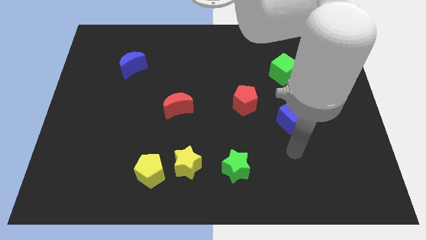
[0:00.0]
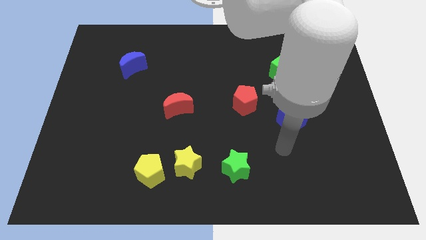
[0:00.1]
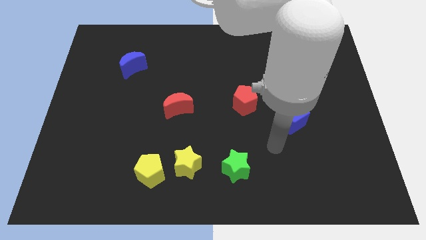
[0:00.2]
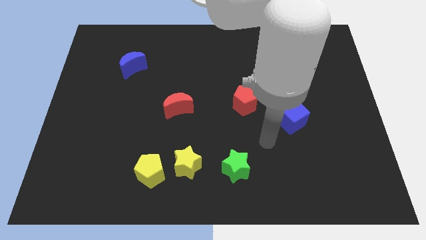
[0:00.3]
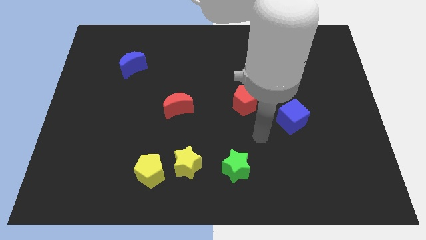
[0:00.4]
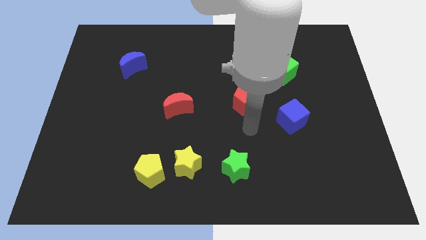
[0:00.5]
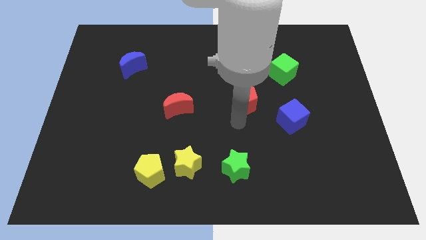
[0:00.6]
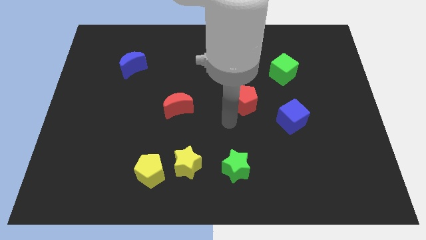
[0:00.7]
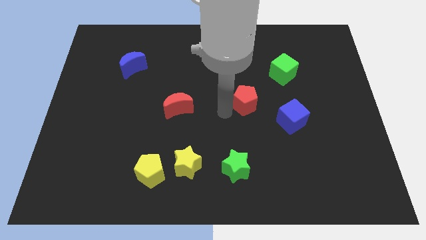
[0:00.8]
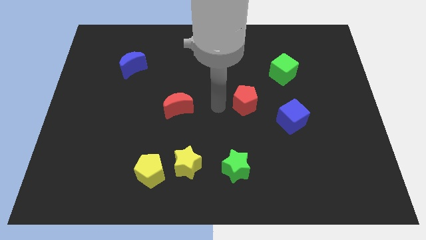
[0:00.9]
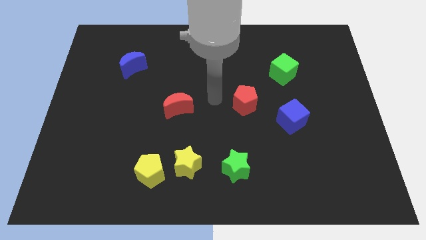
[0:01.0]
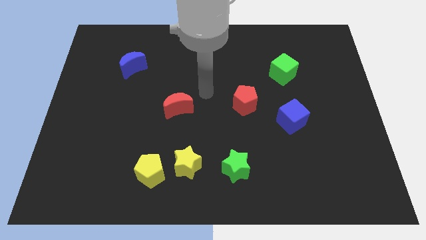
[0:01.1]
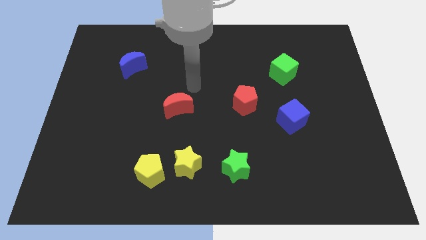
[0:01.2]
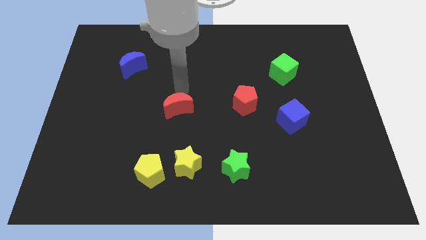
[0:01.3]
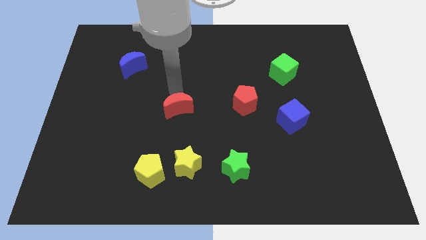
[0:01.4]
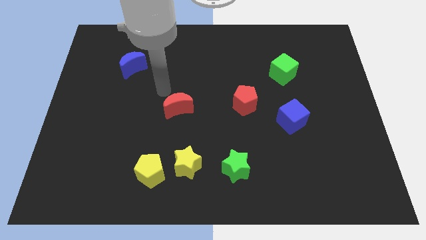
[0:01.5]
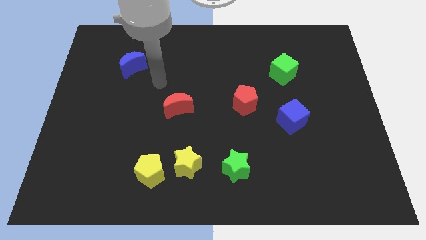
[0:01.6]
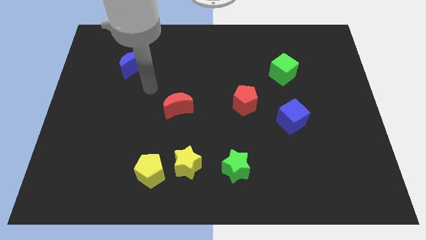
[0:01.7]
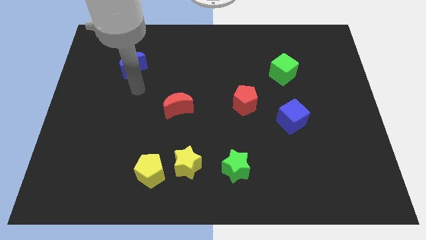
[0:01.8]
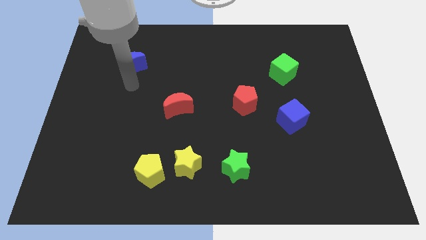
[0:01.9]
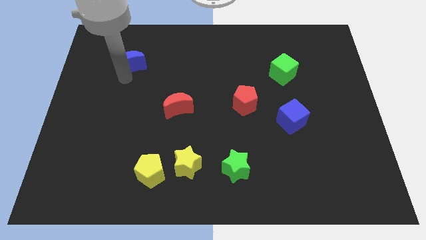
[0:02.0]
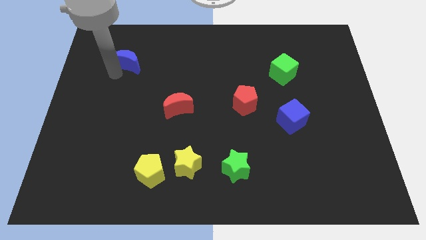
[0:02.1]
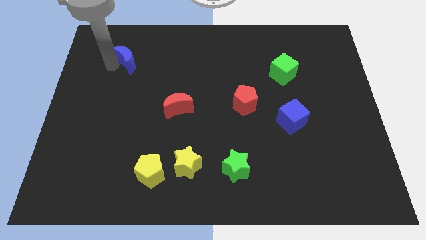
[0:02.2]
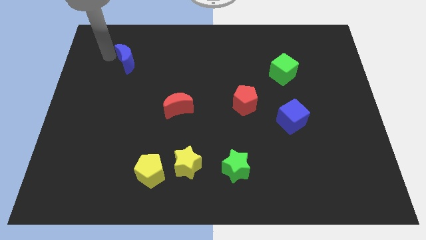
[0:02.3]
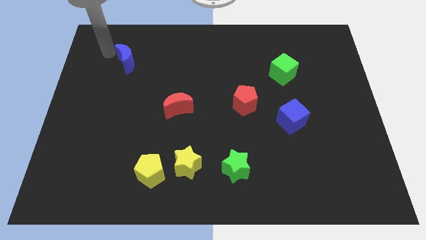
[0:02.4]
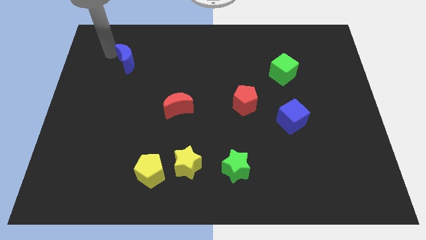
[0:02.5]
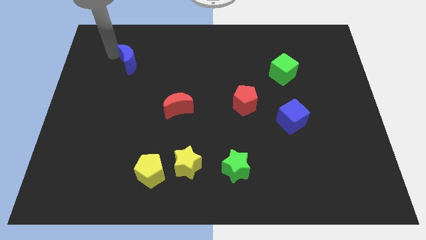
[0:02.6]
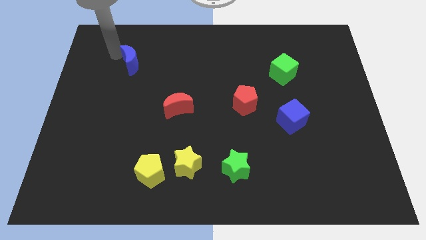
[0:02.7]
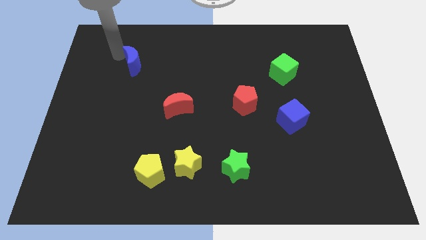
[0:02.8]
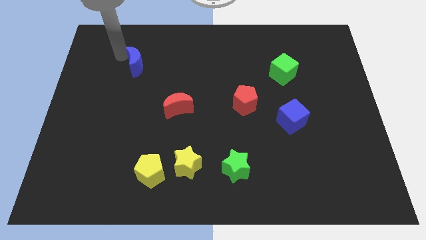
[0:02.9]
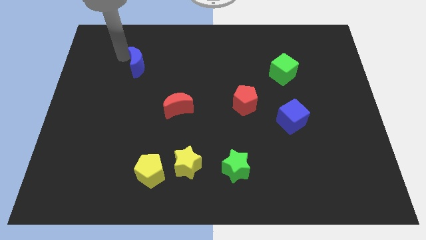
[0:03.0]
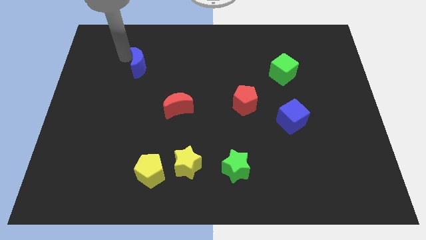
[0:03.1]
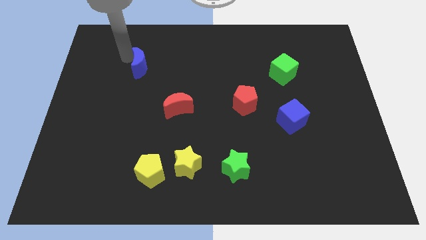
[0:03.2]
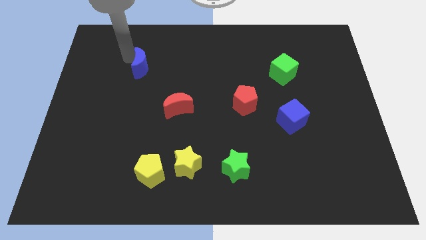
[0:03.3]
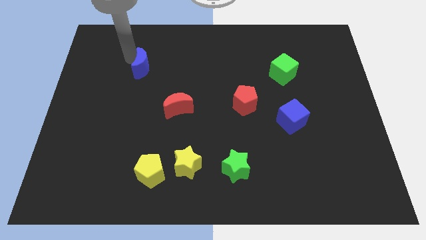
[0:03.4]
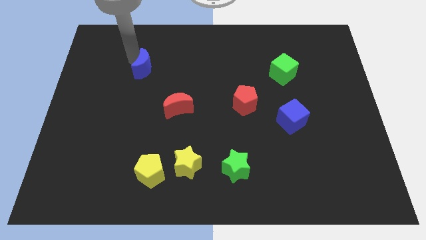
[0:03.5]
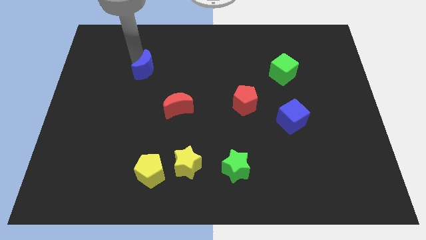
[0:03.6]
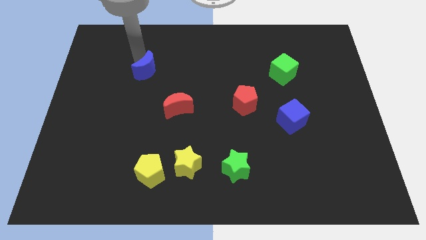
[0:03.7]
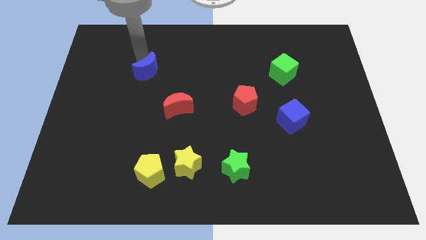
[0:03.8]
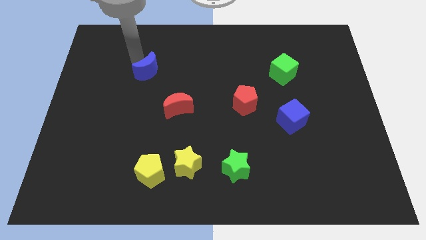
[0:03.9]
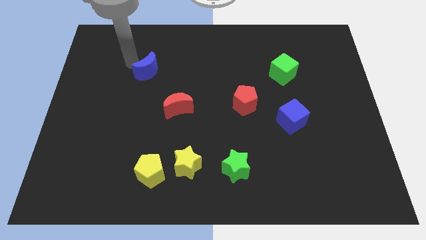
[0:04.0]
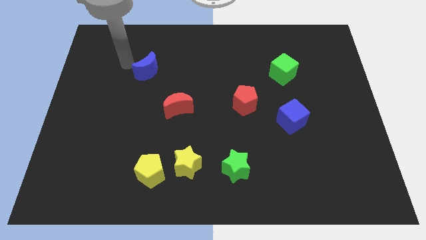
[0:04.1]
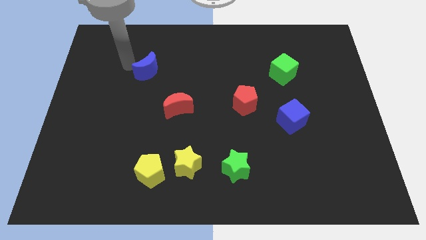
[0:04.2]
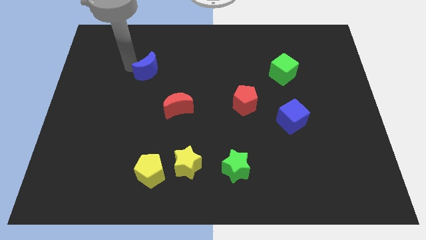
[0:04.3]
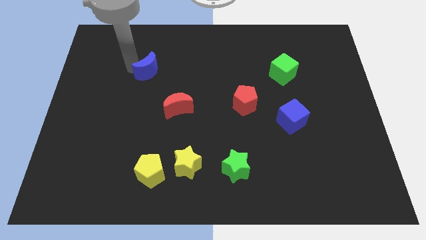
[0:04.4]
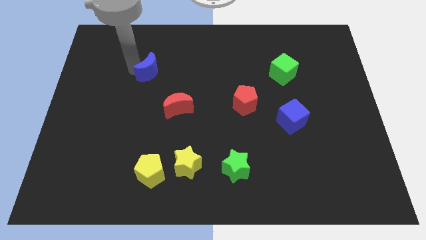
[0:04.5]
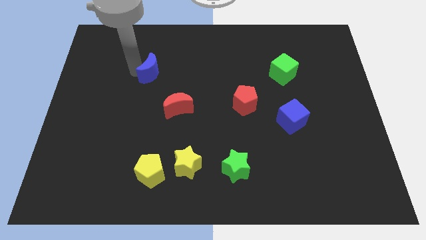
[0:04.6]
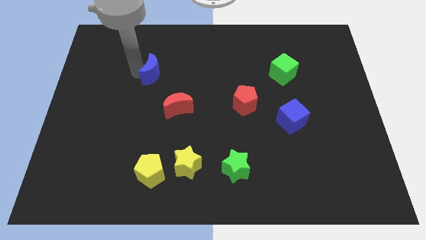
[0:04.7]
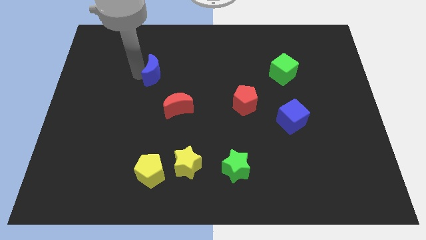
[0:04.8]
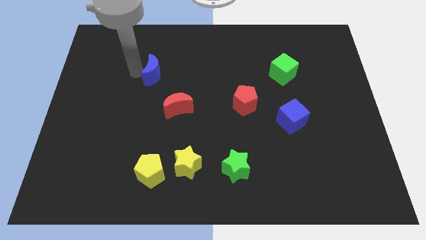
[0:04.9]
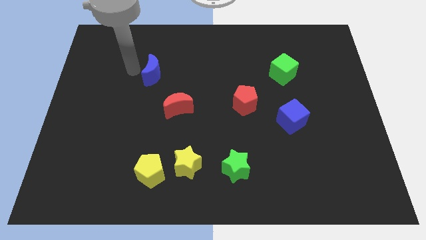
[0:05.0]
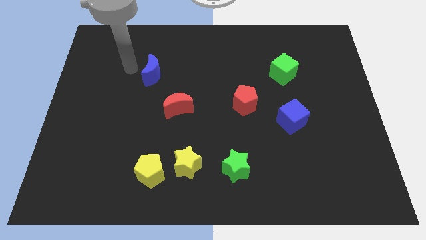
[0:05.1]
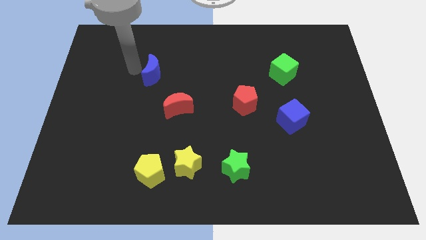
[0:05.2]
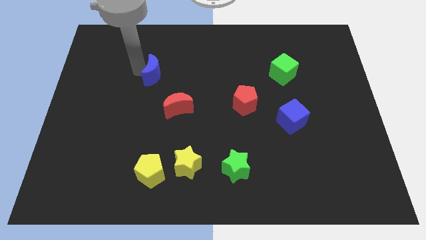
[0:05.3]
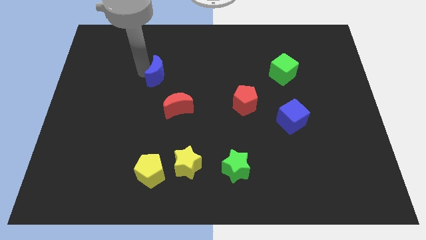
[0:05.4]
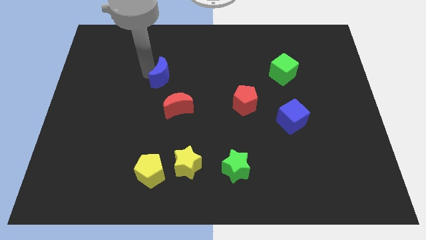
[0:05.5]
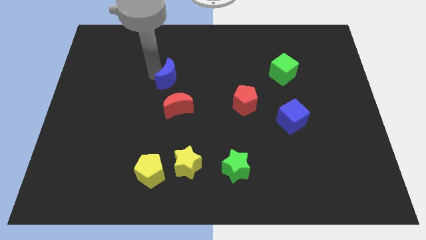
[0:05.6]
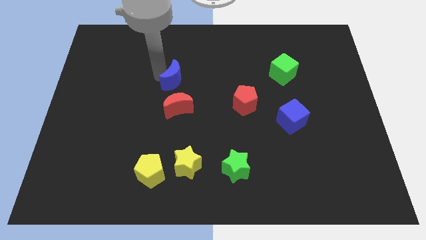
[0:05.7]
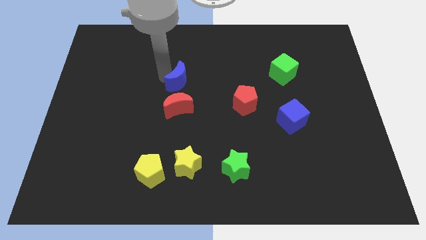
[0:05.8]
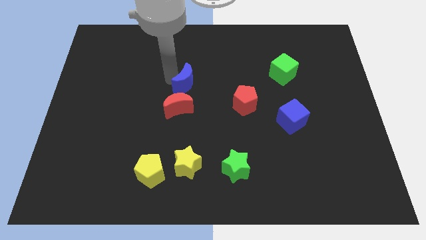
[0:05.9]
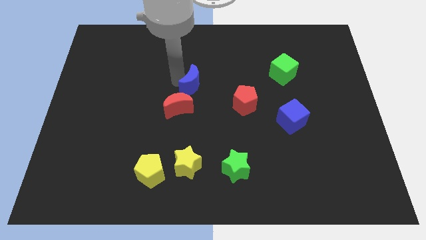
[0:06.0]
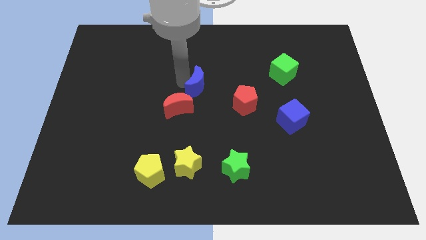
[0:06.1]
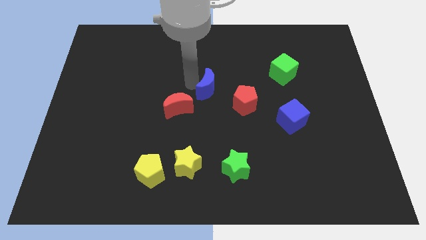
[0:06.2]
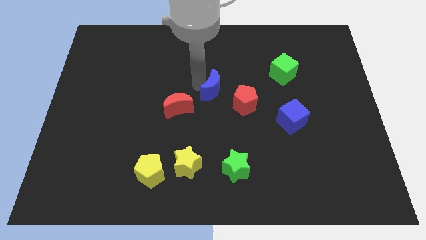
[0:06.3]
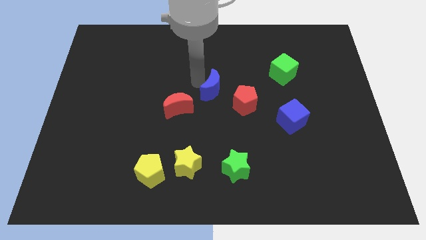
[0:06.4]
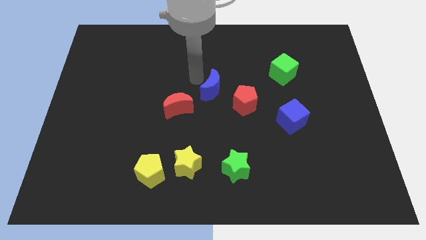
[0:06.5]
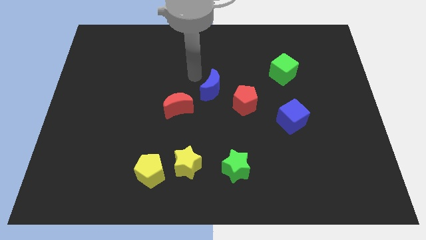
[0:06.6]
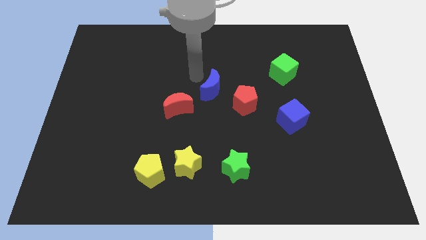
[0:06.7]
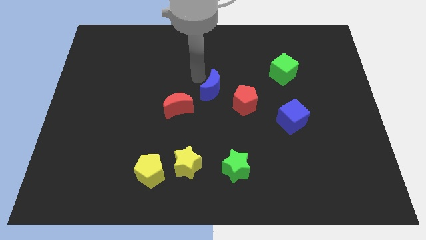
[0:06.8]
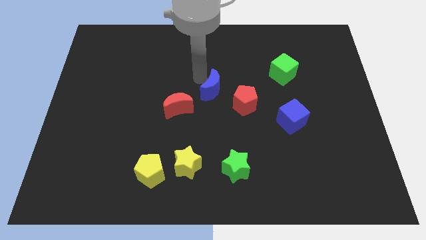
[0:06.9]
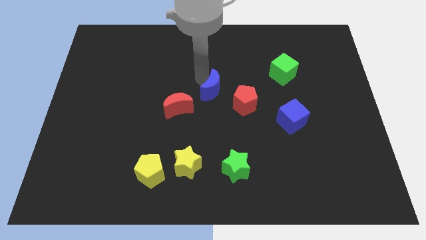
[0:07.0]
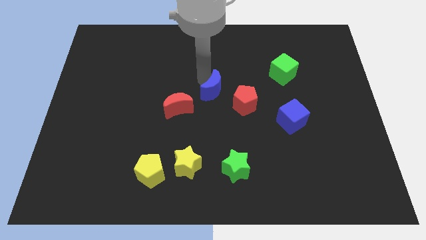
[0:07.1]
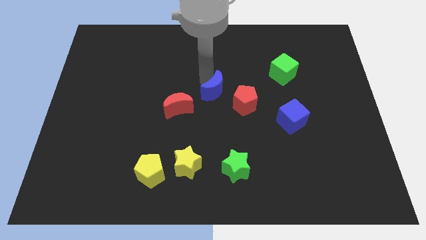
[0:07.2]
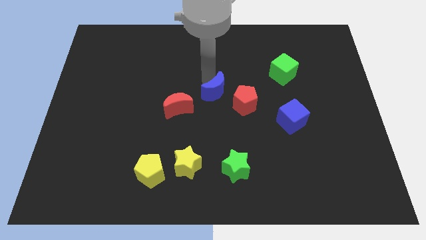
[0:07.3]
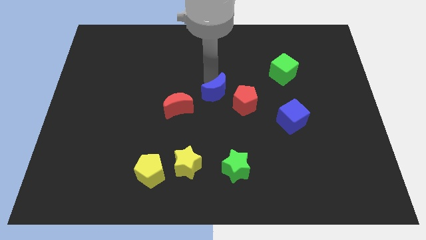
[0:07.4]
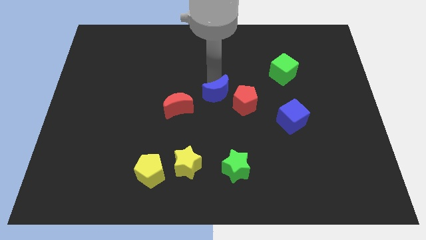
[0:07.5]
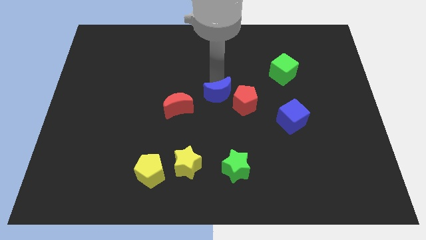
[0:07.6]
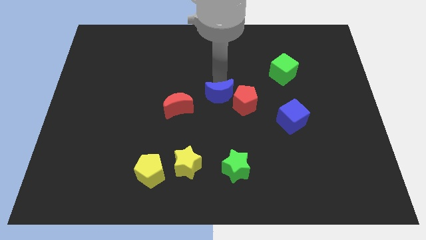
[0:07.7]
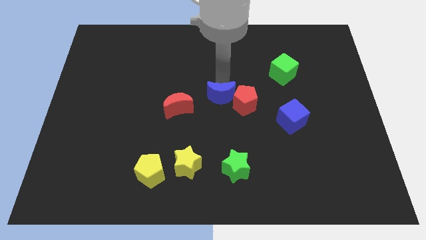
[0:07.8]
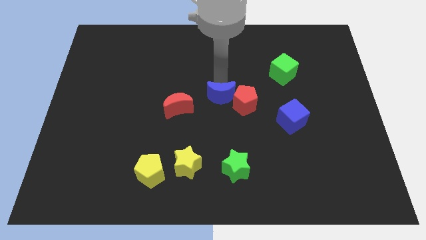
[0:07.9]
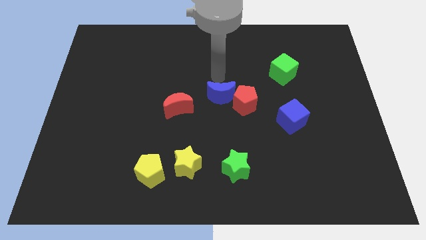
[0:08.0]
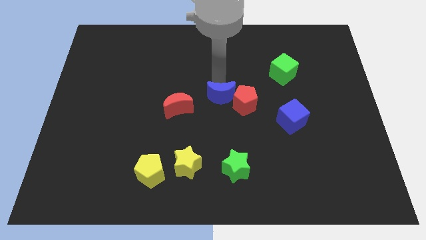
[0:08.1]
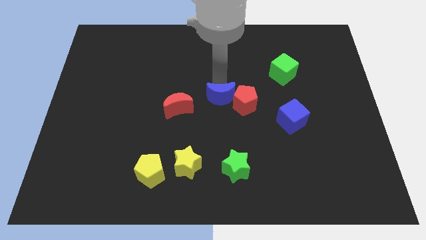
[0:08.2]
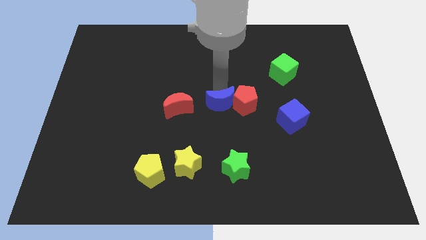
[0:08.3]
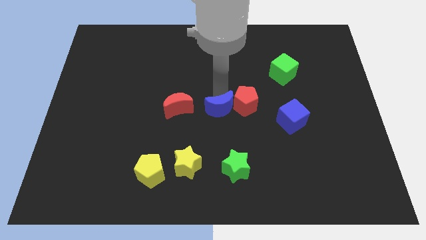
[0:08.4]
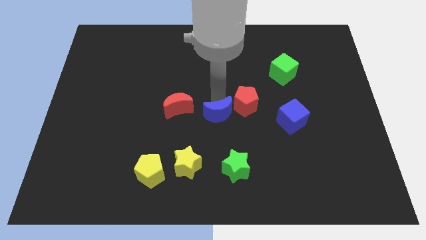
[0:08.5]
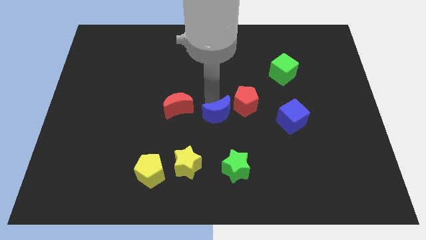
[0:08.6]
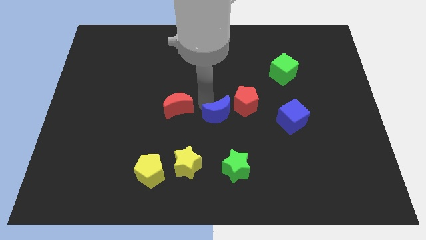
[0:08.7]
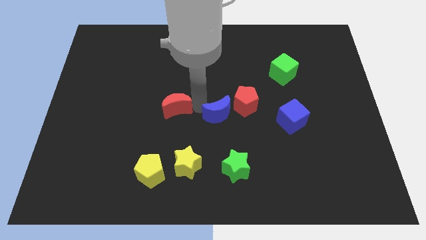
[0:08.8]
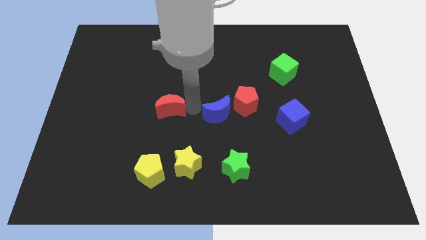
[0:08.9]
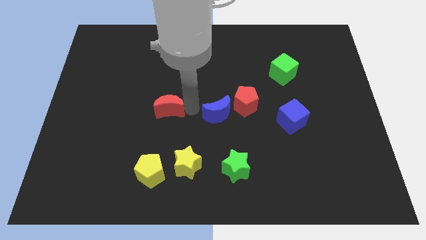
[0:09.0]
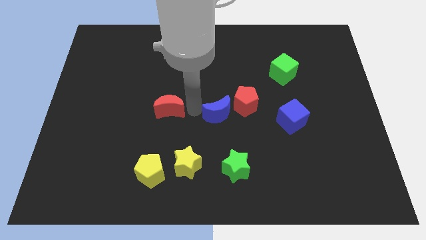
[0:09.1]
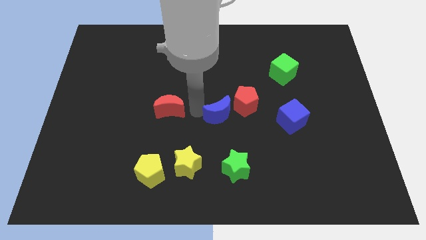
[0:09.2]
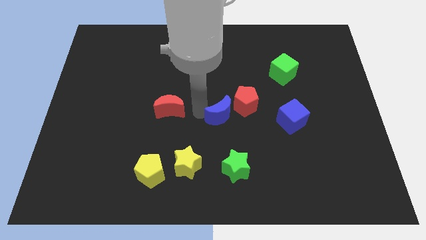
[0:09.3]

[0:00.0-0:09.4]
push the blue moon just left of the blue cube
